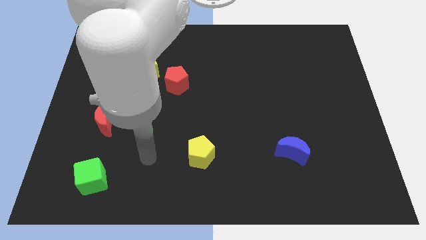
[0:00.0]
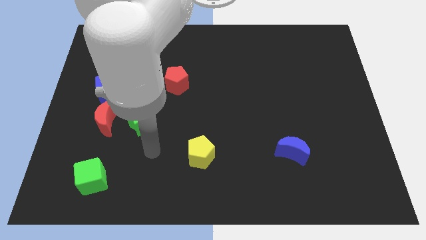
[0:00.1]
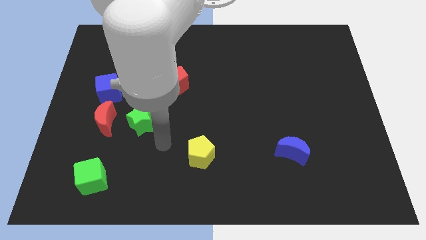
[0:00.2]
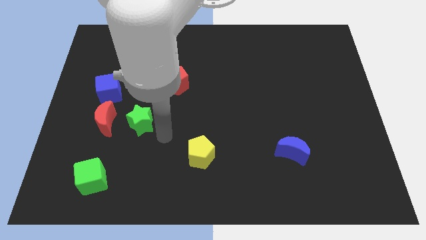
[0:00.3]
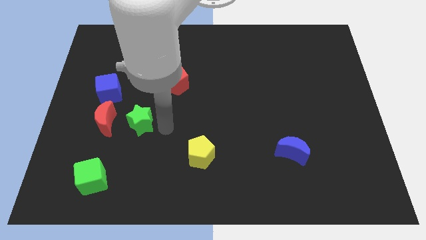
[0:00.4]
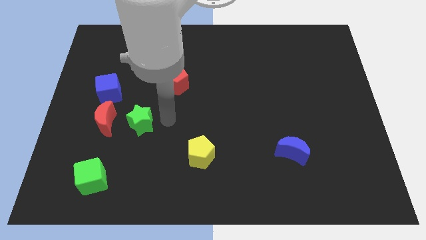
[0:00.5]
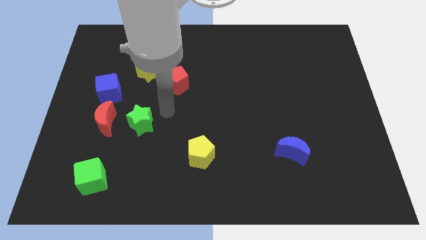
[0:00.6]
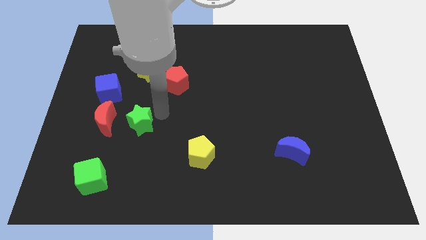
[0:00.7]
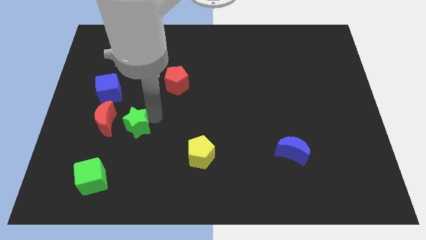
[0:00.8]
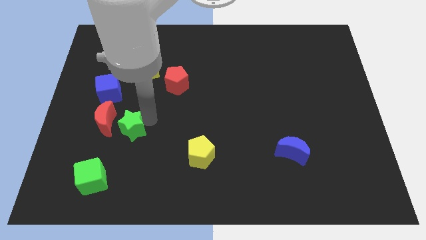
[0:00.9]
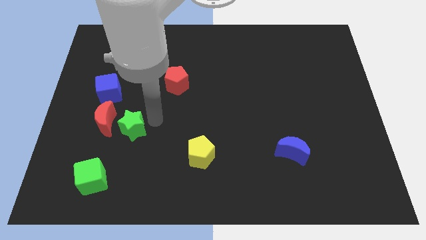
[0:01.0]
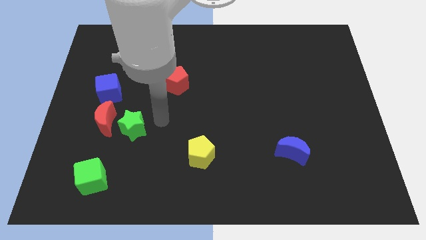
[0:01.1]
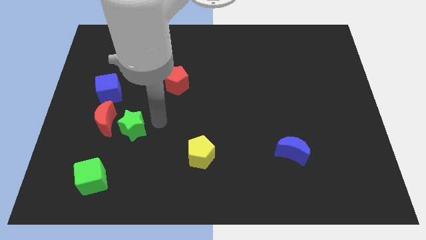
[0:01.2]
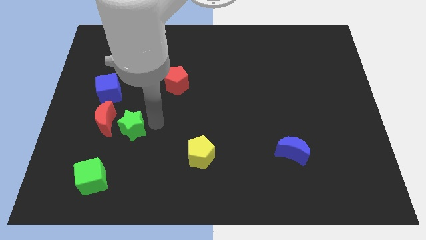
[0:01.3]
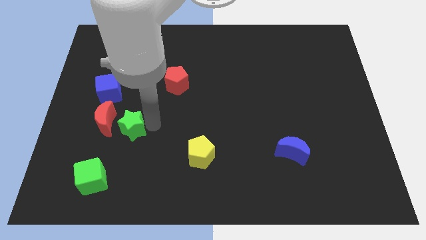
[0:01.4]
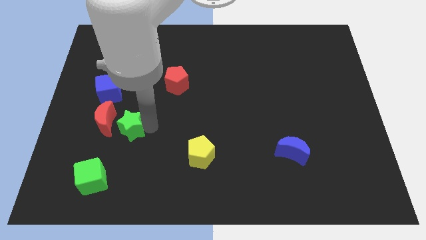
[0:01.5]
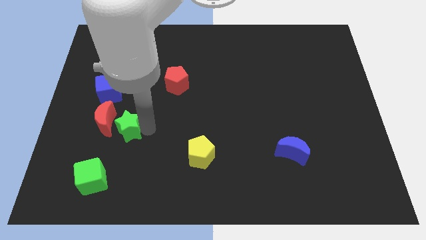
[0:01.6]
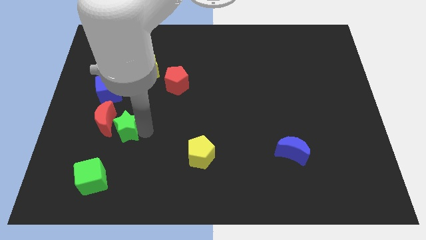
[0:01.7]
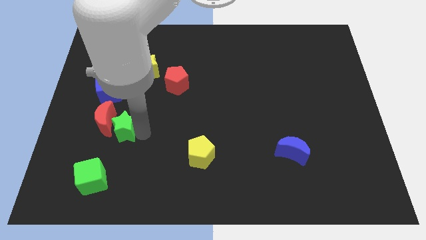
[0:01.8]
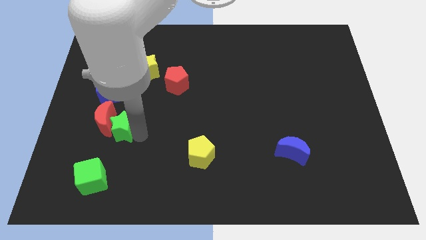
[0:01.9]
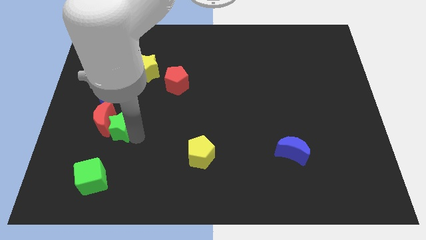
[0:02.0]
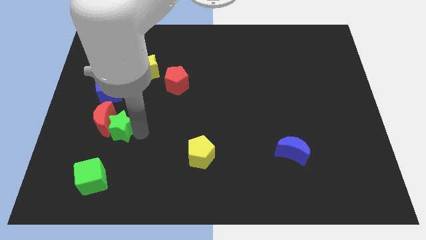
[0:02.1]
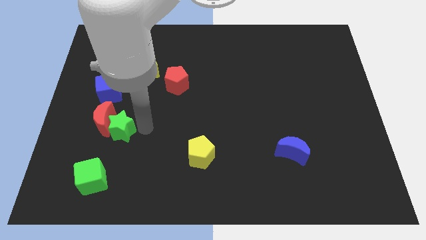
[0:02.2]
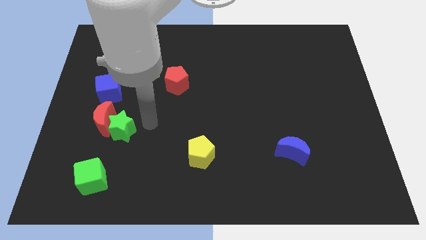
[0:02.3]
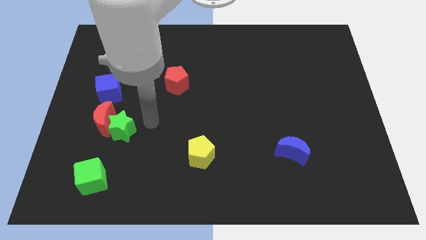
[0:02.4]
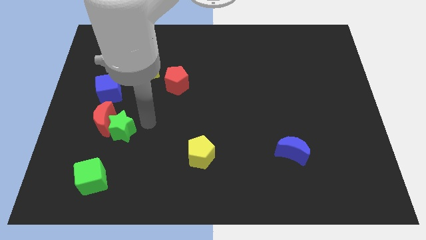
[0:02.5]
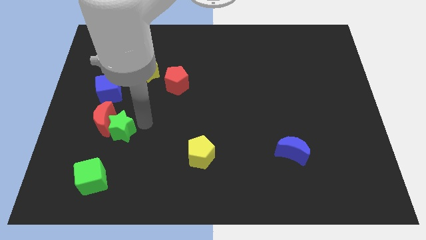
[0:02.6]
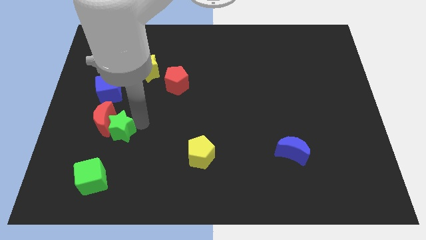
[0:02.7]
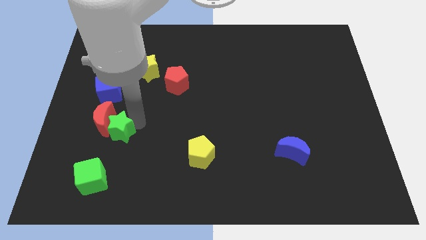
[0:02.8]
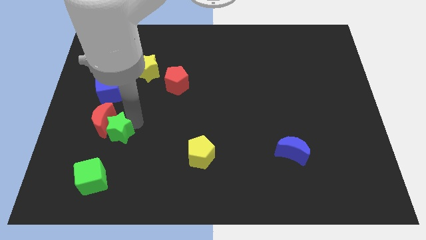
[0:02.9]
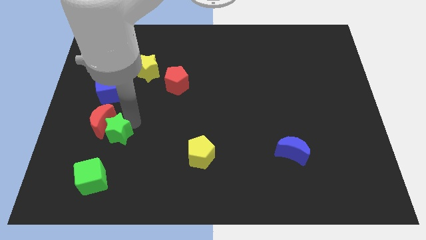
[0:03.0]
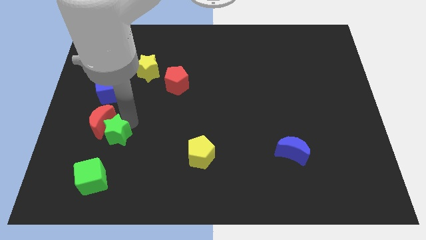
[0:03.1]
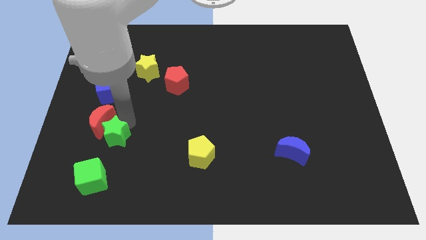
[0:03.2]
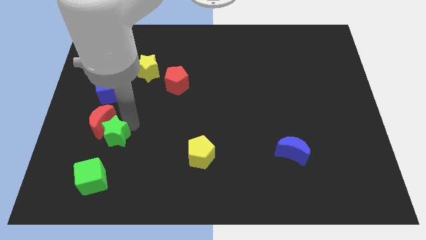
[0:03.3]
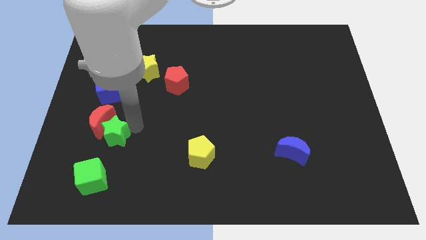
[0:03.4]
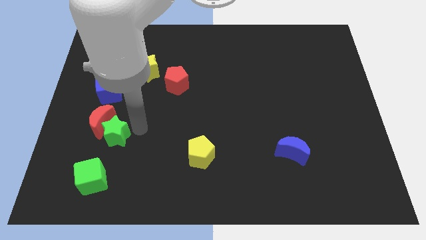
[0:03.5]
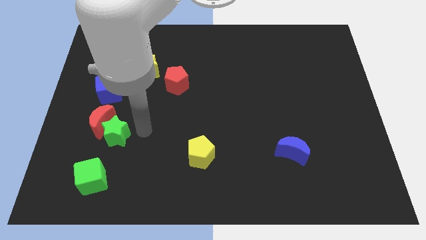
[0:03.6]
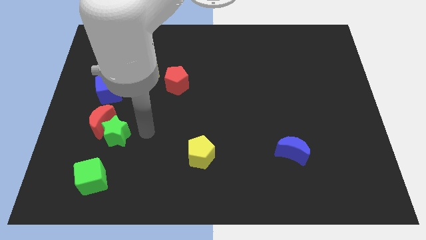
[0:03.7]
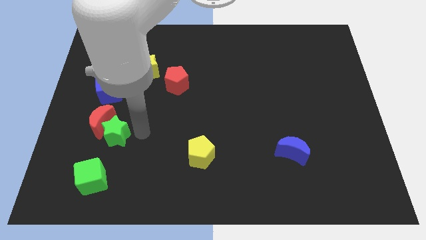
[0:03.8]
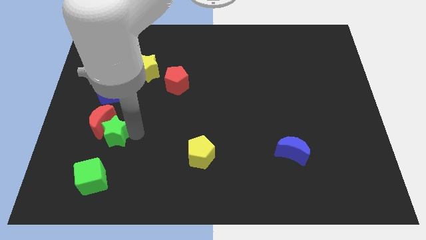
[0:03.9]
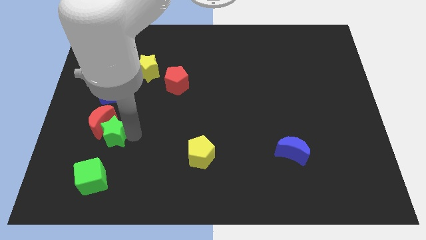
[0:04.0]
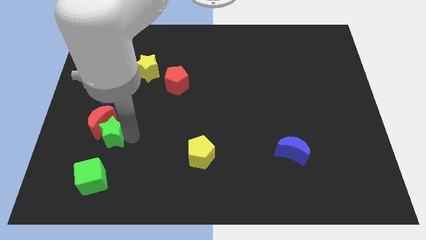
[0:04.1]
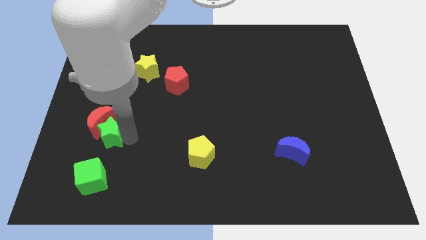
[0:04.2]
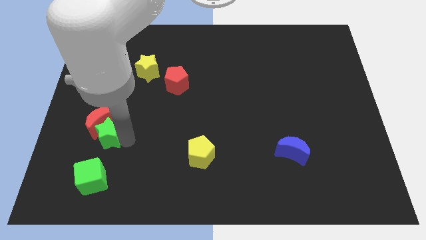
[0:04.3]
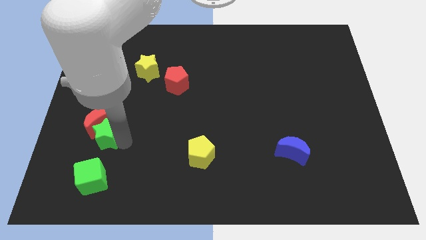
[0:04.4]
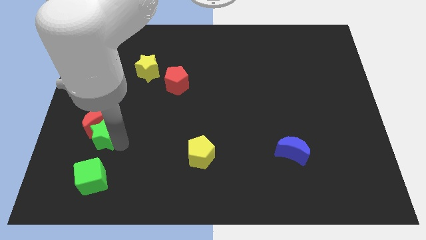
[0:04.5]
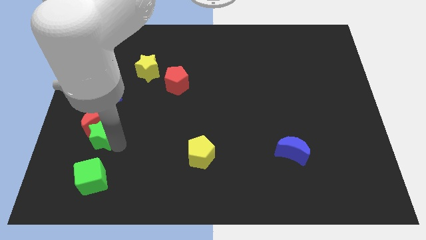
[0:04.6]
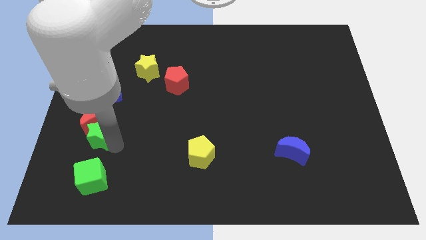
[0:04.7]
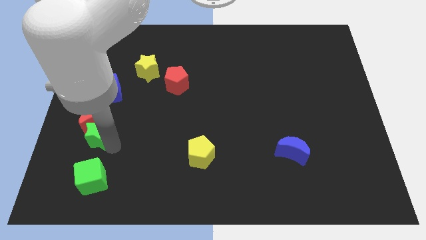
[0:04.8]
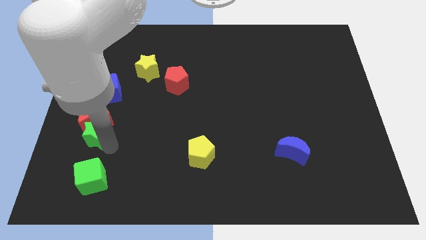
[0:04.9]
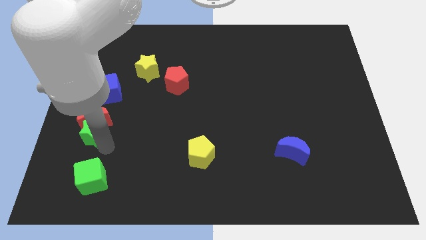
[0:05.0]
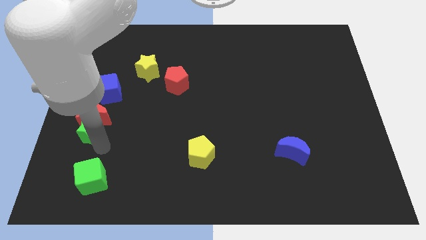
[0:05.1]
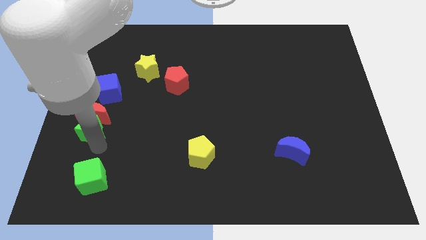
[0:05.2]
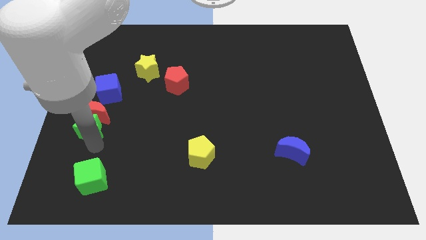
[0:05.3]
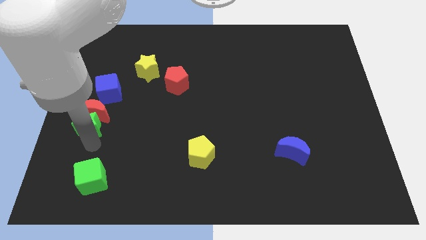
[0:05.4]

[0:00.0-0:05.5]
move the green star to the left side

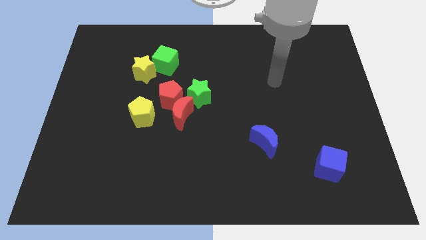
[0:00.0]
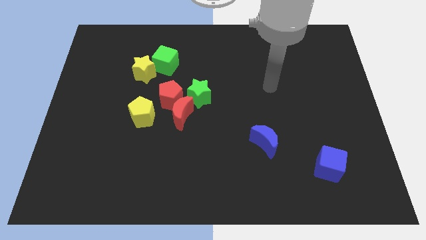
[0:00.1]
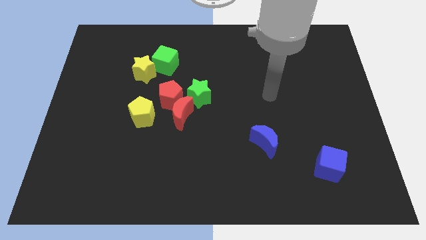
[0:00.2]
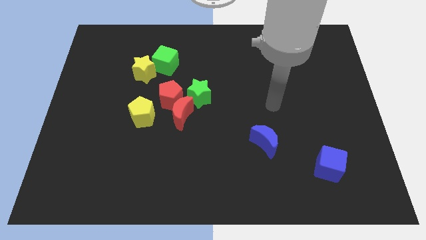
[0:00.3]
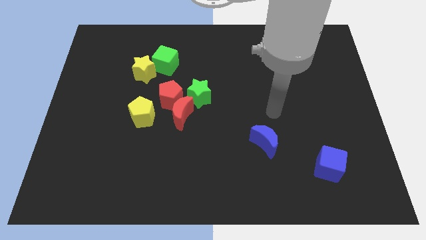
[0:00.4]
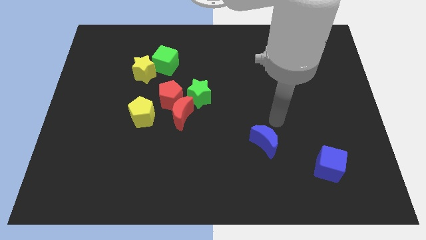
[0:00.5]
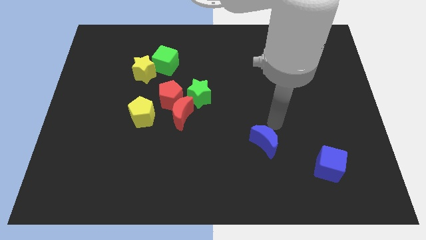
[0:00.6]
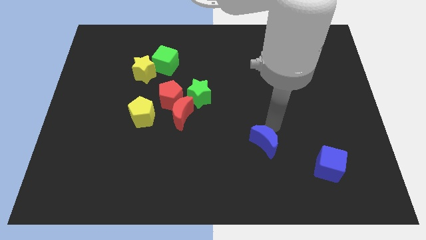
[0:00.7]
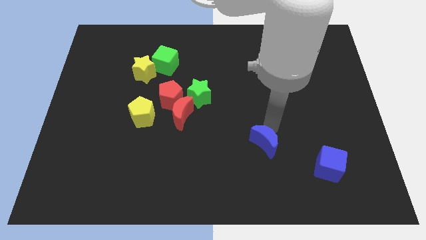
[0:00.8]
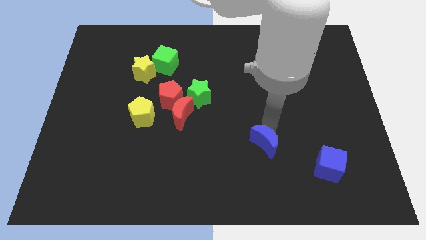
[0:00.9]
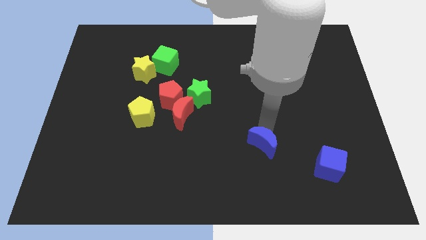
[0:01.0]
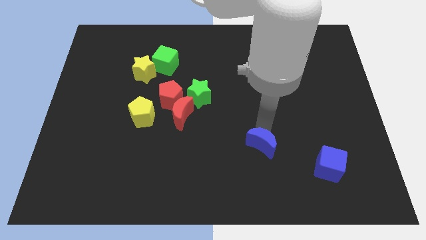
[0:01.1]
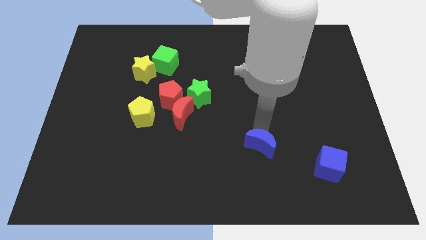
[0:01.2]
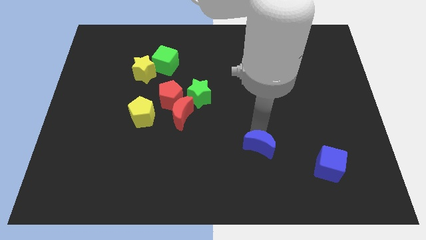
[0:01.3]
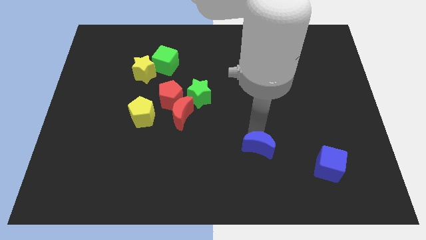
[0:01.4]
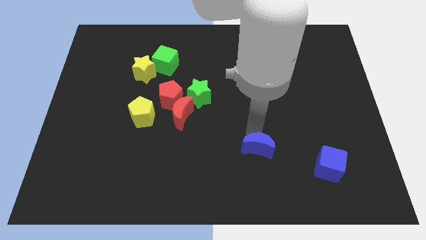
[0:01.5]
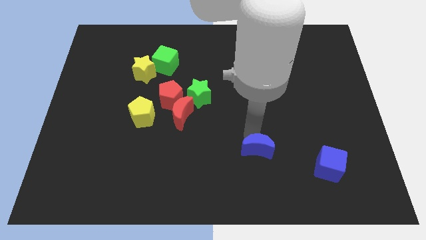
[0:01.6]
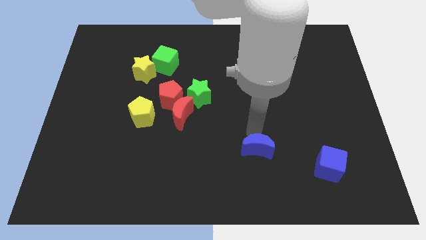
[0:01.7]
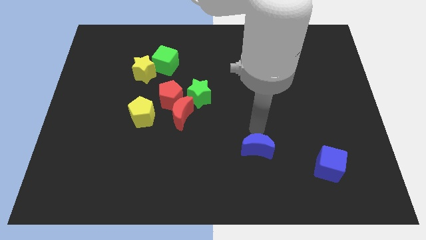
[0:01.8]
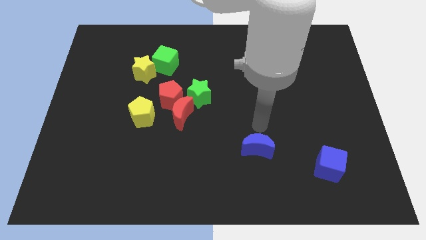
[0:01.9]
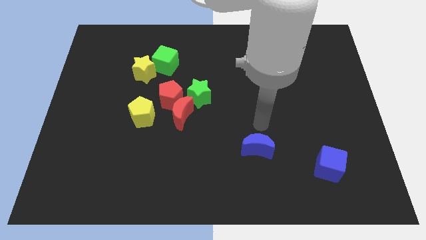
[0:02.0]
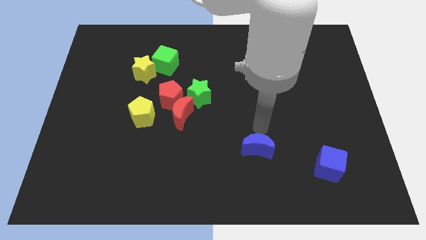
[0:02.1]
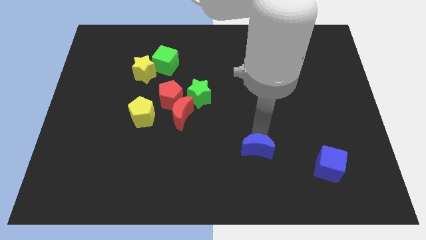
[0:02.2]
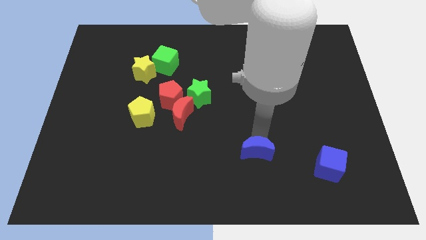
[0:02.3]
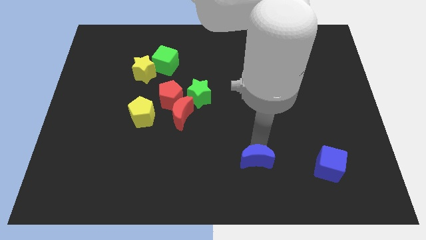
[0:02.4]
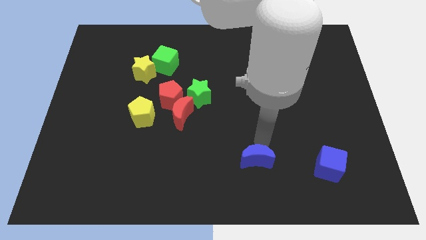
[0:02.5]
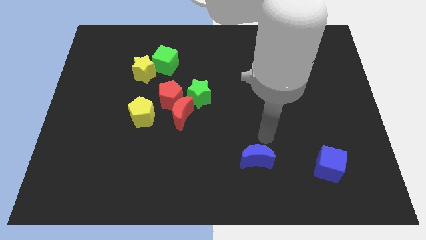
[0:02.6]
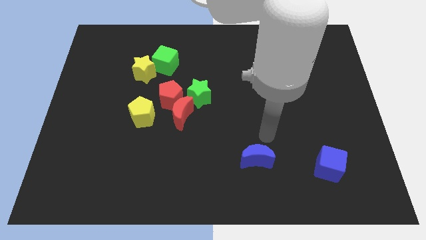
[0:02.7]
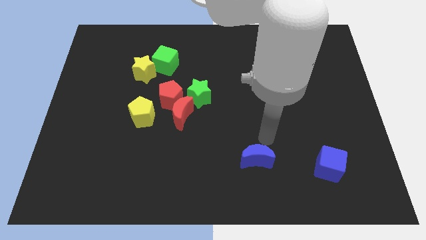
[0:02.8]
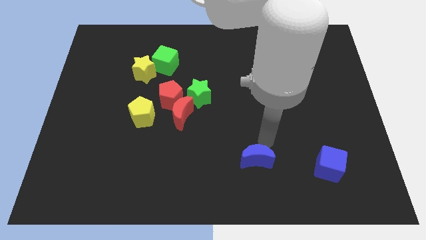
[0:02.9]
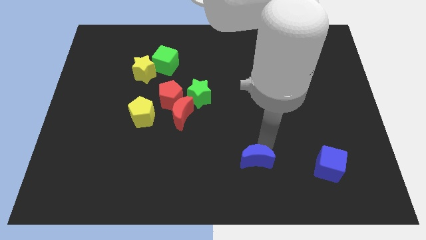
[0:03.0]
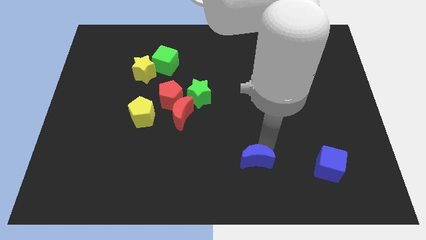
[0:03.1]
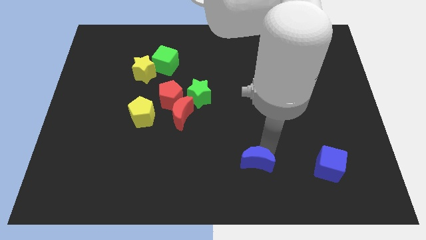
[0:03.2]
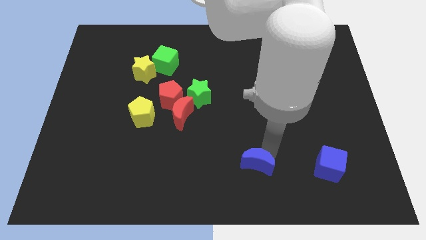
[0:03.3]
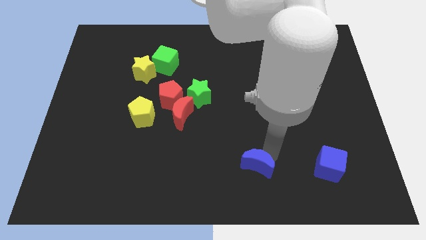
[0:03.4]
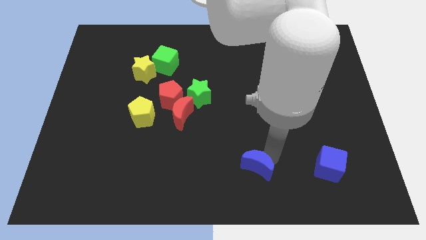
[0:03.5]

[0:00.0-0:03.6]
slide the blue moon to the bottom
